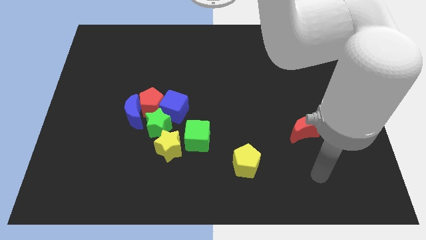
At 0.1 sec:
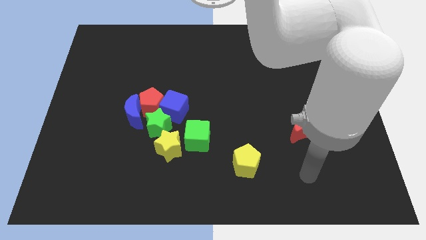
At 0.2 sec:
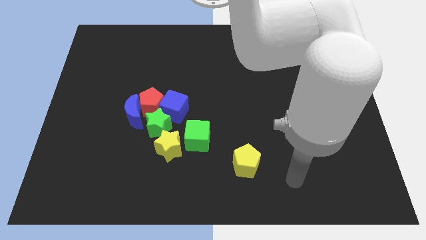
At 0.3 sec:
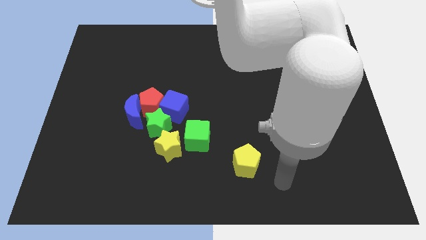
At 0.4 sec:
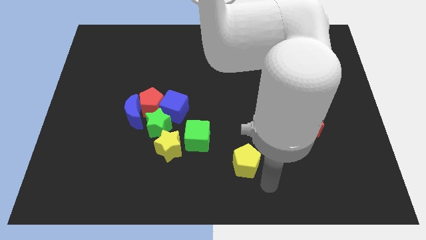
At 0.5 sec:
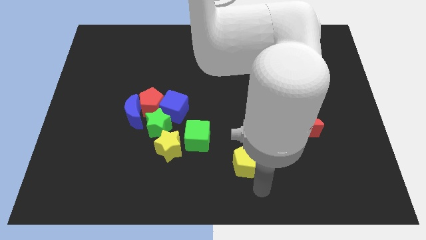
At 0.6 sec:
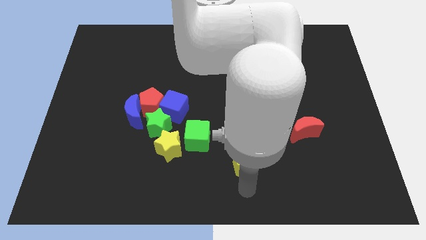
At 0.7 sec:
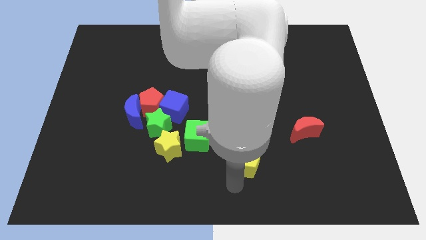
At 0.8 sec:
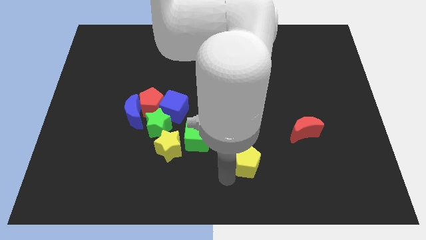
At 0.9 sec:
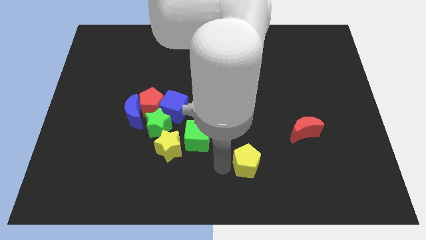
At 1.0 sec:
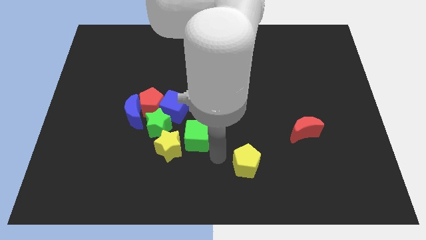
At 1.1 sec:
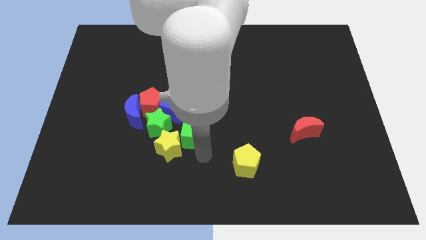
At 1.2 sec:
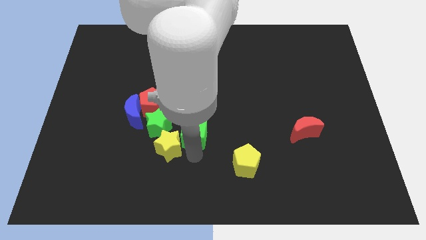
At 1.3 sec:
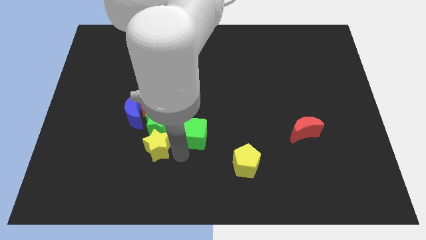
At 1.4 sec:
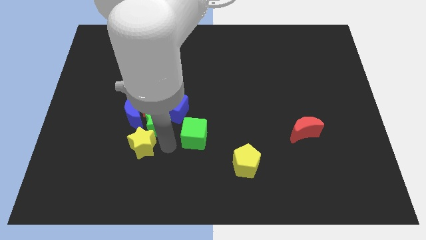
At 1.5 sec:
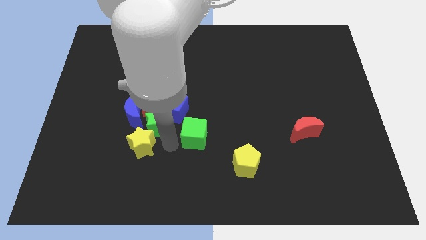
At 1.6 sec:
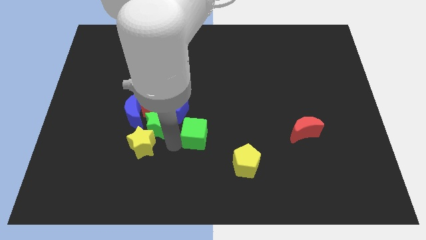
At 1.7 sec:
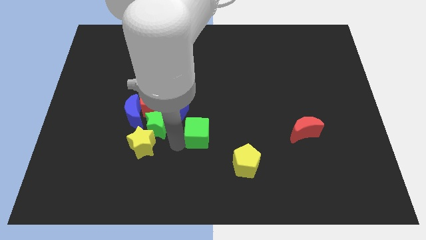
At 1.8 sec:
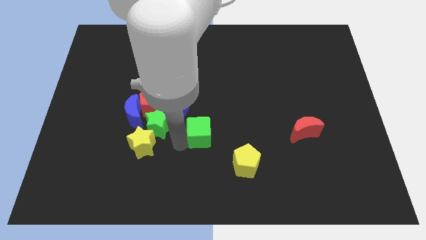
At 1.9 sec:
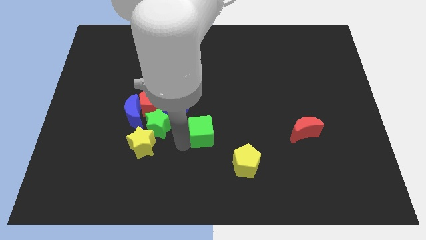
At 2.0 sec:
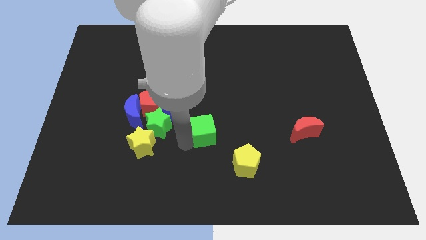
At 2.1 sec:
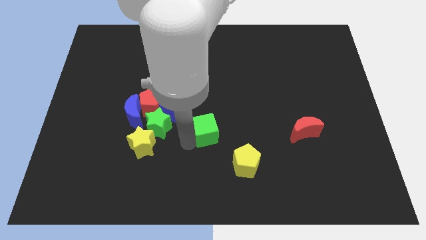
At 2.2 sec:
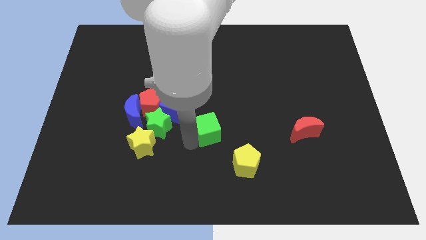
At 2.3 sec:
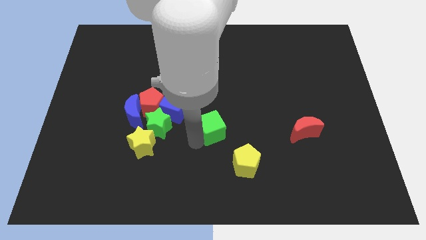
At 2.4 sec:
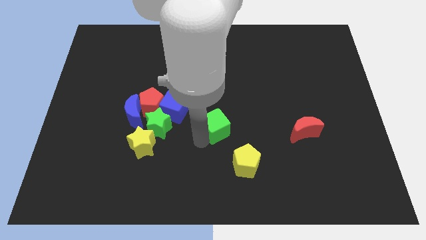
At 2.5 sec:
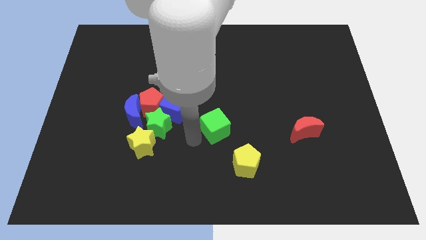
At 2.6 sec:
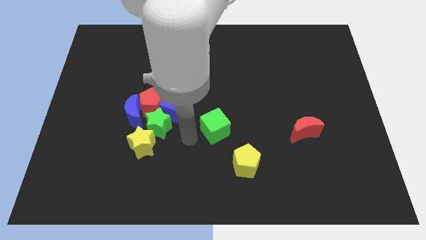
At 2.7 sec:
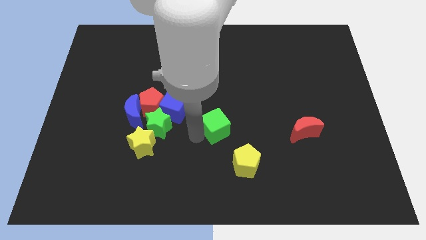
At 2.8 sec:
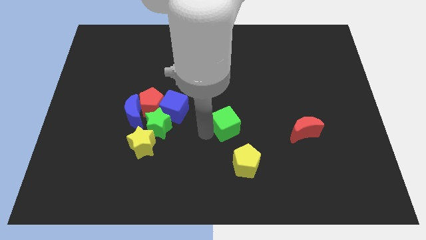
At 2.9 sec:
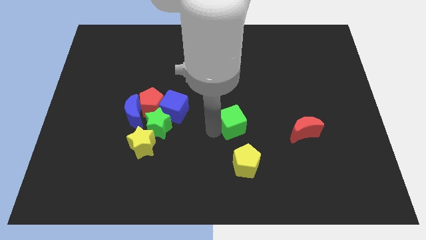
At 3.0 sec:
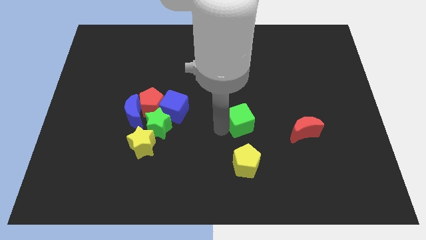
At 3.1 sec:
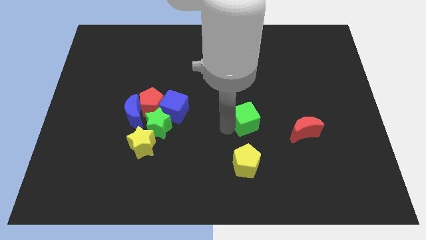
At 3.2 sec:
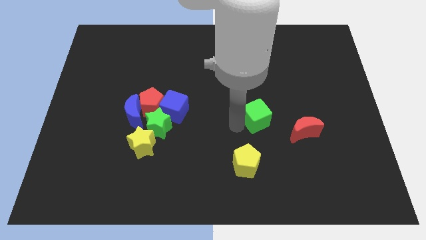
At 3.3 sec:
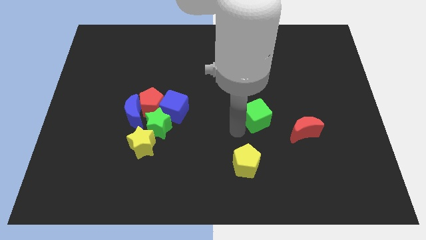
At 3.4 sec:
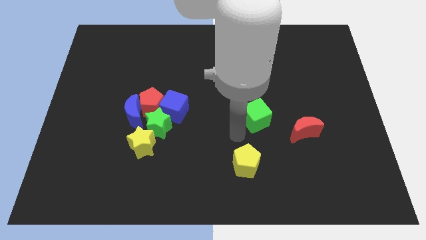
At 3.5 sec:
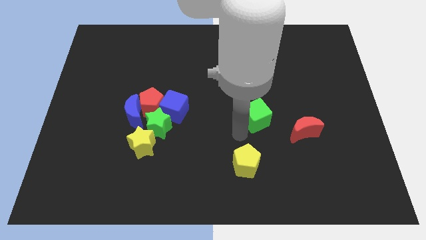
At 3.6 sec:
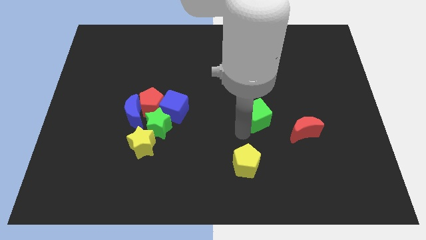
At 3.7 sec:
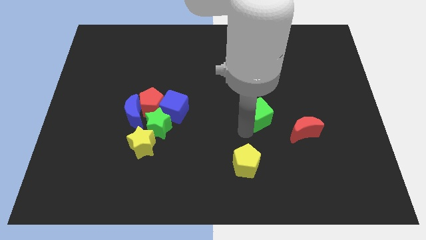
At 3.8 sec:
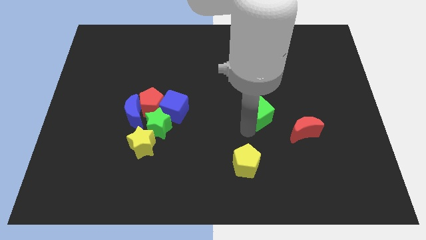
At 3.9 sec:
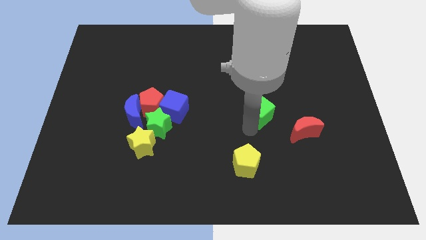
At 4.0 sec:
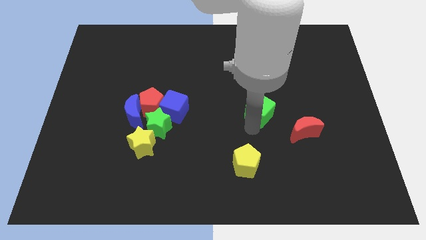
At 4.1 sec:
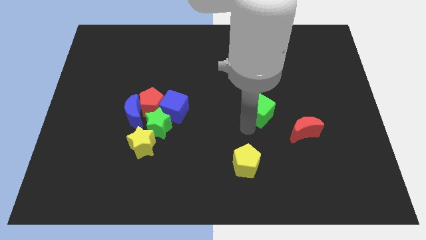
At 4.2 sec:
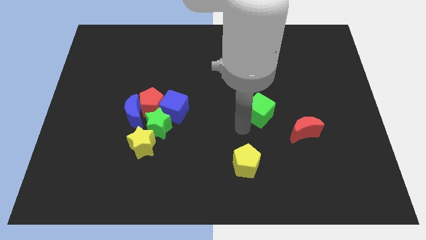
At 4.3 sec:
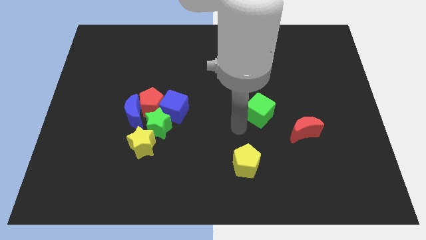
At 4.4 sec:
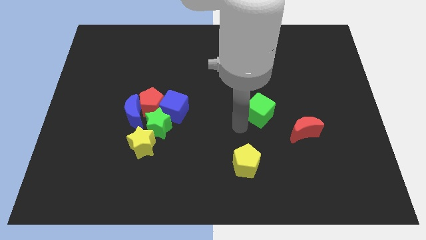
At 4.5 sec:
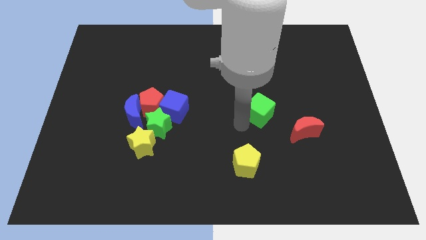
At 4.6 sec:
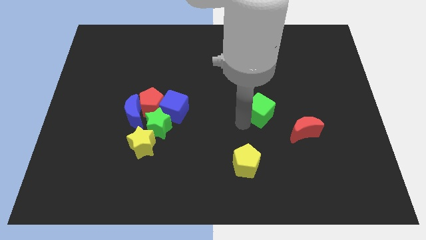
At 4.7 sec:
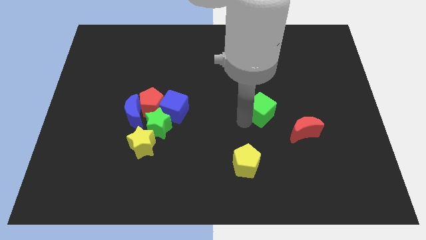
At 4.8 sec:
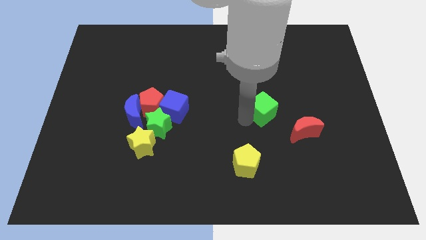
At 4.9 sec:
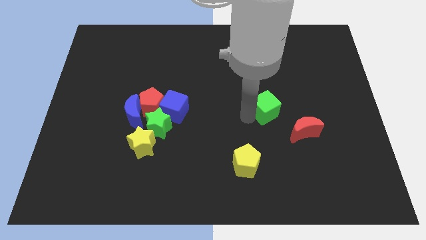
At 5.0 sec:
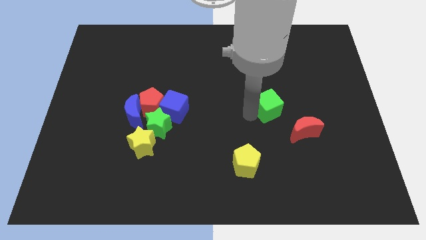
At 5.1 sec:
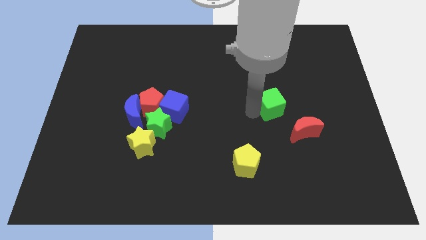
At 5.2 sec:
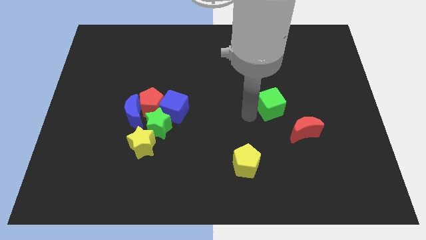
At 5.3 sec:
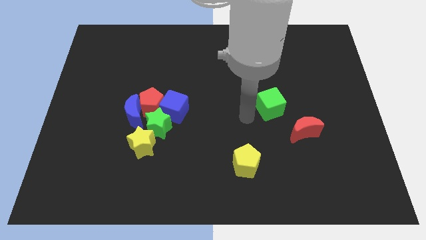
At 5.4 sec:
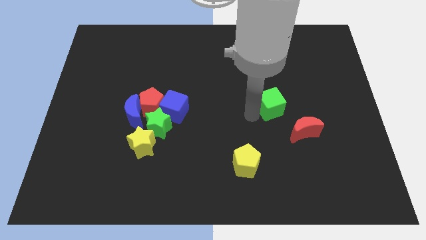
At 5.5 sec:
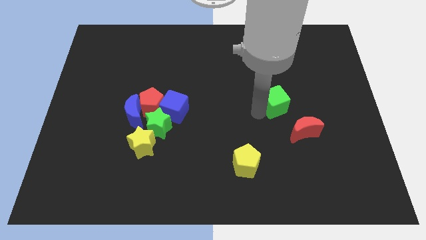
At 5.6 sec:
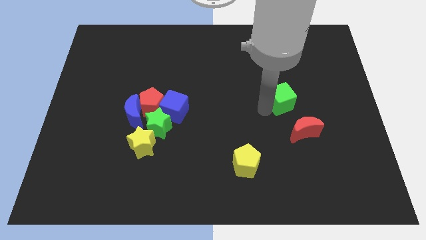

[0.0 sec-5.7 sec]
slide the green cube above the red moon

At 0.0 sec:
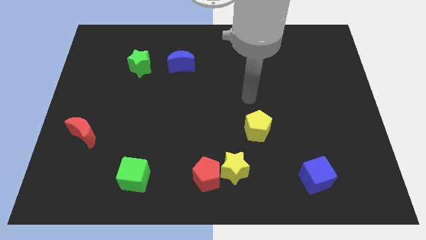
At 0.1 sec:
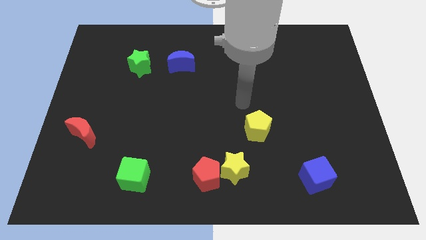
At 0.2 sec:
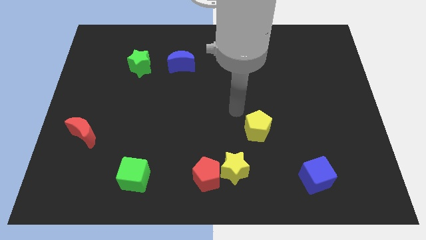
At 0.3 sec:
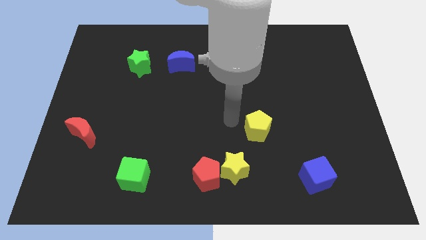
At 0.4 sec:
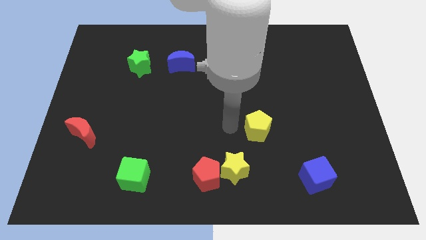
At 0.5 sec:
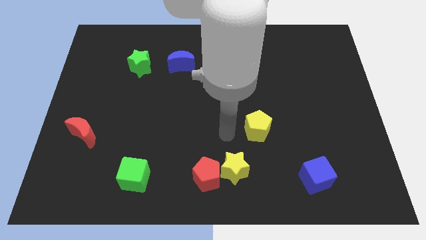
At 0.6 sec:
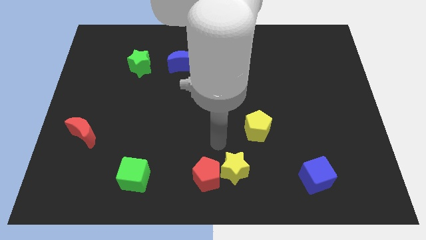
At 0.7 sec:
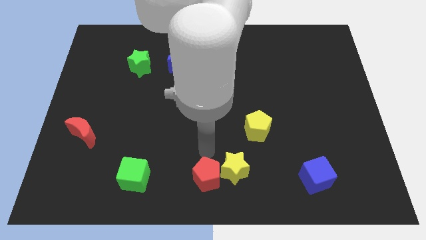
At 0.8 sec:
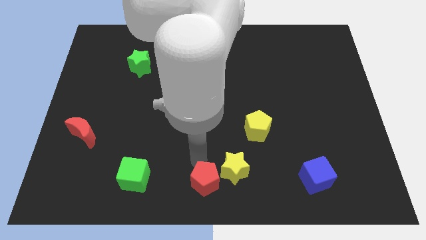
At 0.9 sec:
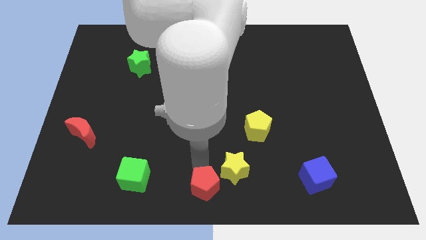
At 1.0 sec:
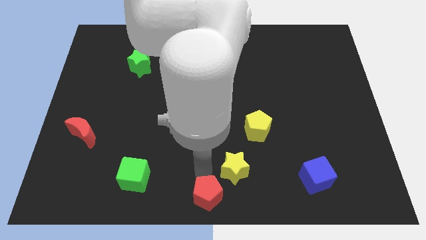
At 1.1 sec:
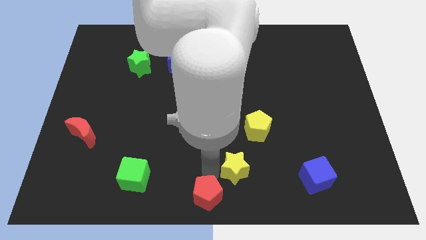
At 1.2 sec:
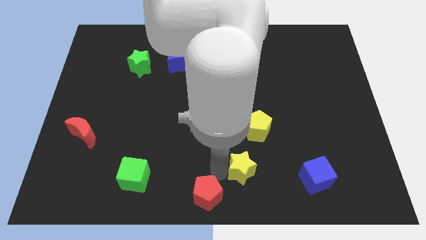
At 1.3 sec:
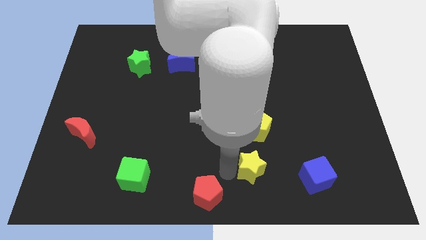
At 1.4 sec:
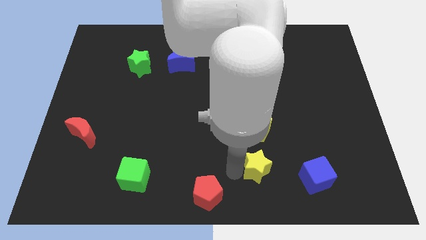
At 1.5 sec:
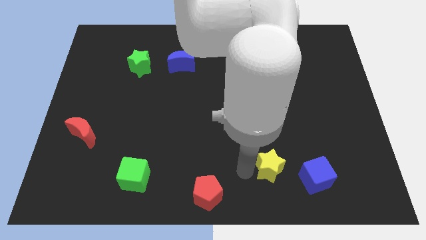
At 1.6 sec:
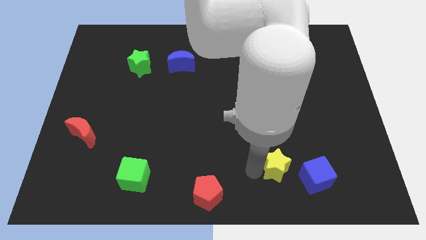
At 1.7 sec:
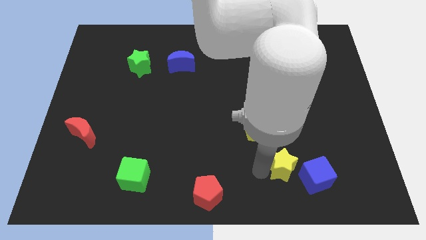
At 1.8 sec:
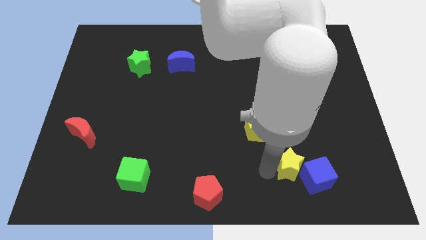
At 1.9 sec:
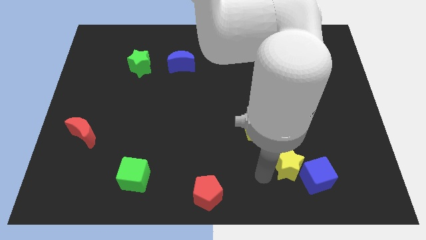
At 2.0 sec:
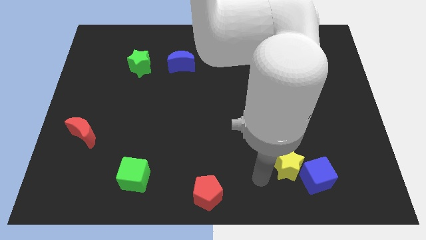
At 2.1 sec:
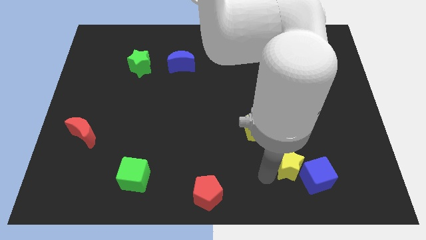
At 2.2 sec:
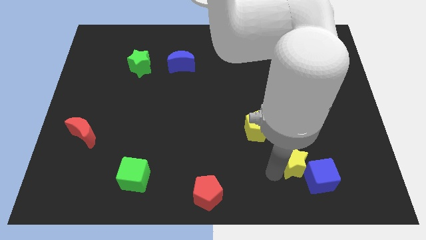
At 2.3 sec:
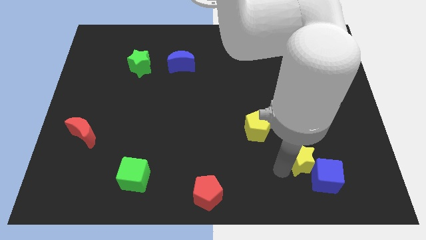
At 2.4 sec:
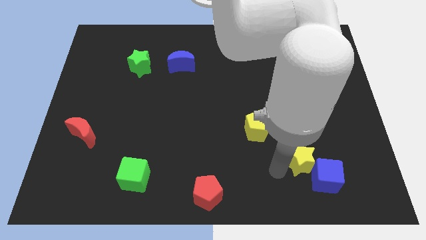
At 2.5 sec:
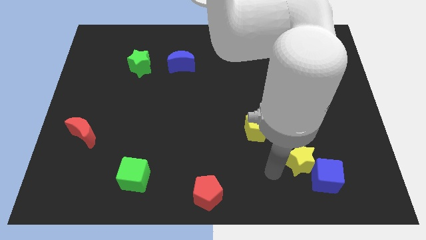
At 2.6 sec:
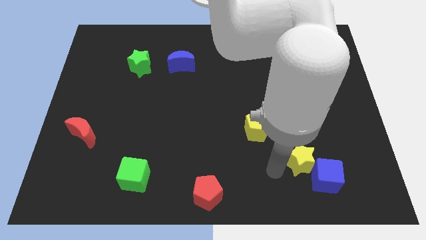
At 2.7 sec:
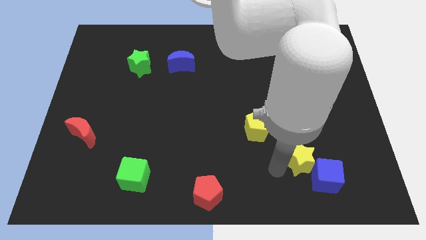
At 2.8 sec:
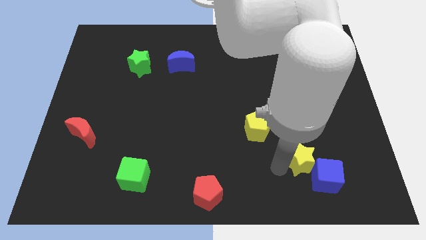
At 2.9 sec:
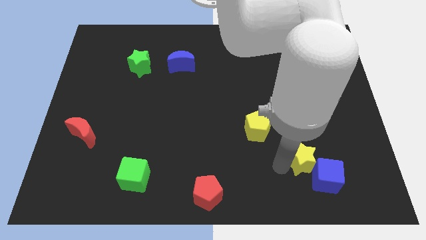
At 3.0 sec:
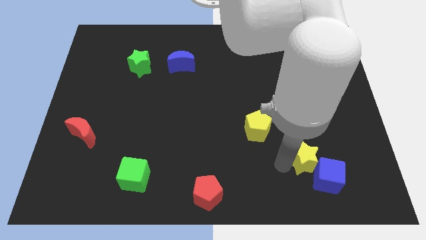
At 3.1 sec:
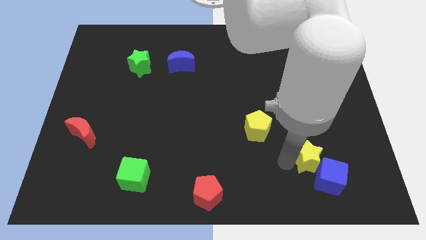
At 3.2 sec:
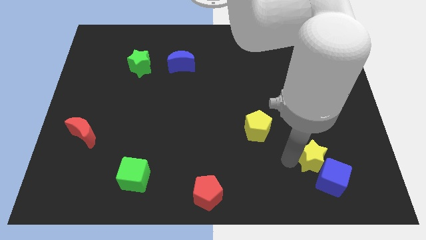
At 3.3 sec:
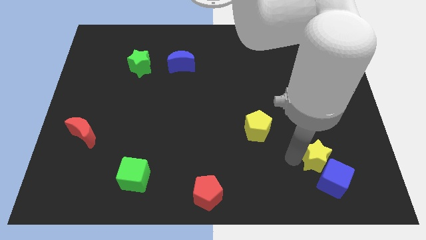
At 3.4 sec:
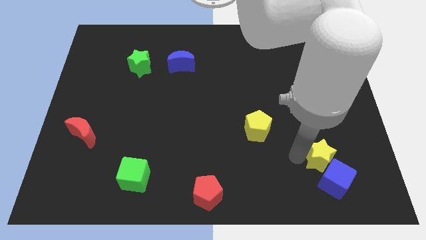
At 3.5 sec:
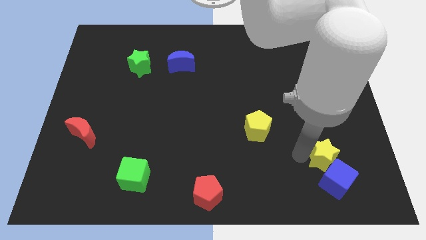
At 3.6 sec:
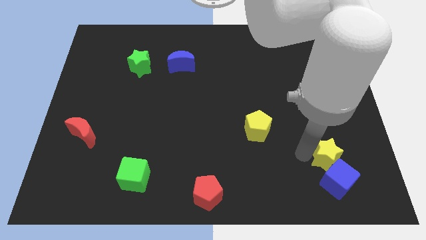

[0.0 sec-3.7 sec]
move the yellow star to the top right of the blue cube
